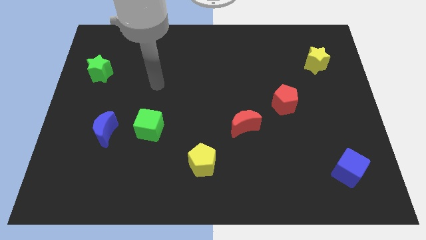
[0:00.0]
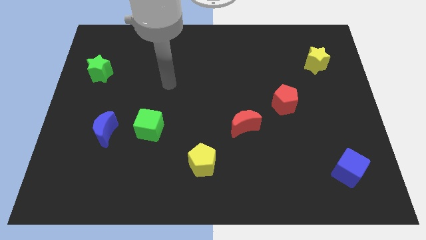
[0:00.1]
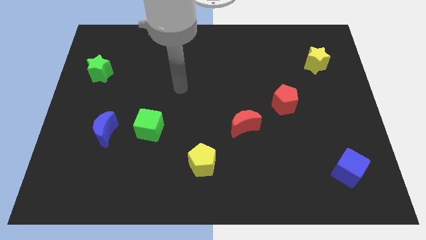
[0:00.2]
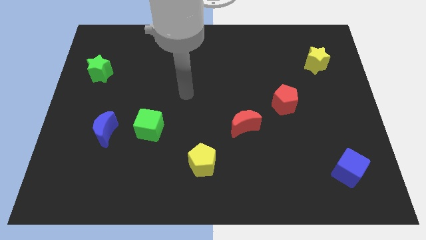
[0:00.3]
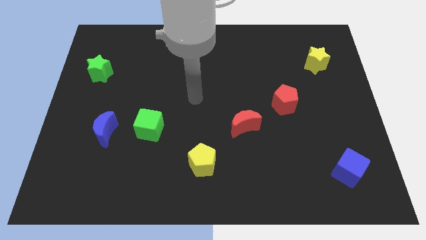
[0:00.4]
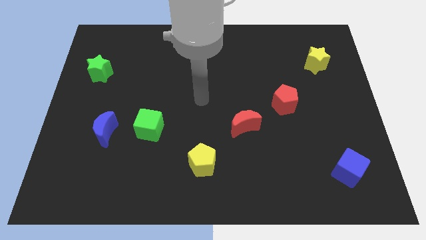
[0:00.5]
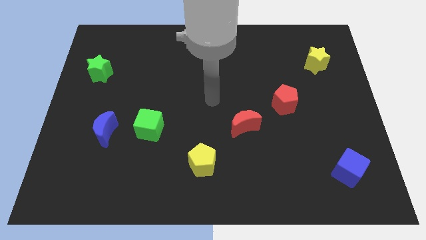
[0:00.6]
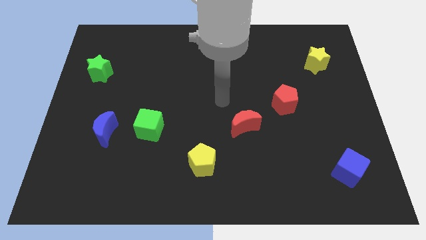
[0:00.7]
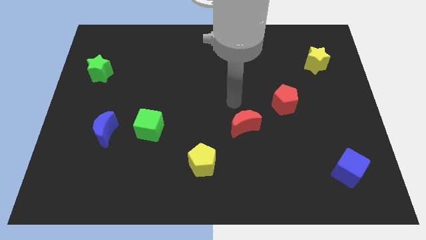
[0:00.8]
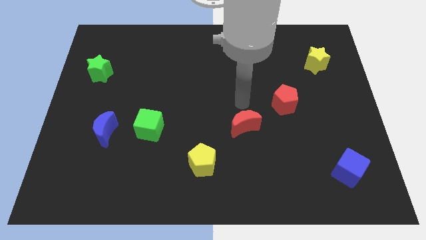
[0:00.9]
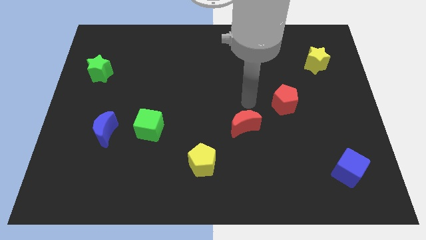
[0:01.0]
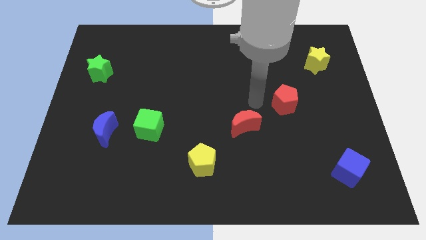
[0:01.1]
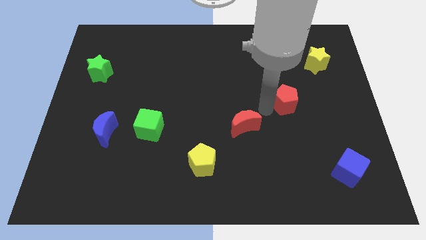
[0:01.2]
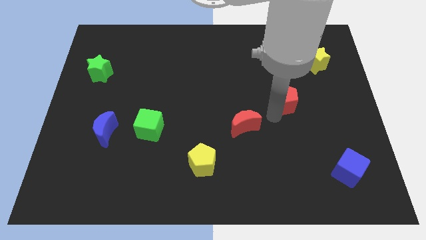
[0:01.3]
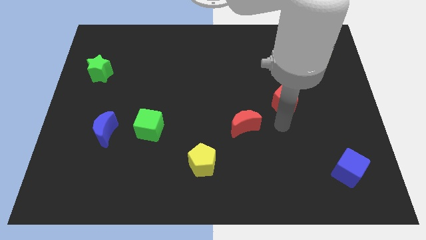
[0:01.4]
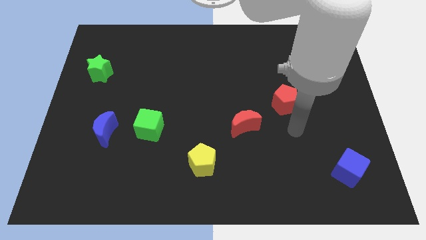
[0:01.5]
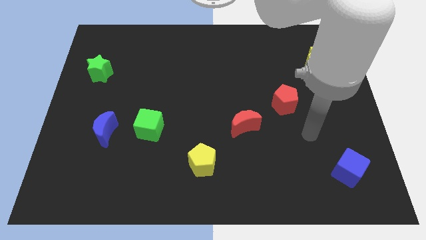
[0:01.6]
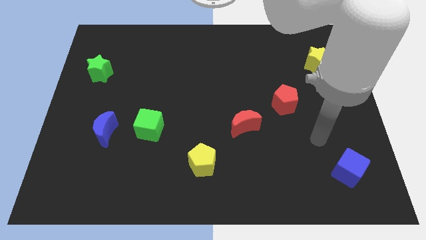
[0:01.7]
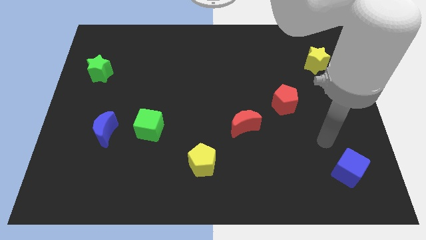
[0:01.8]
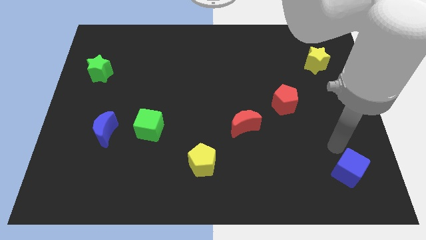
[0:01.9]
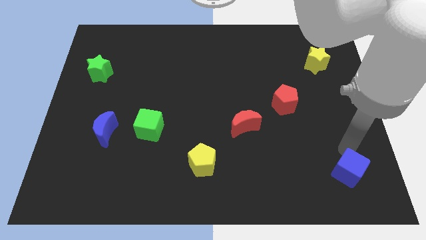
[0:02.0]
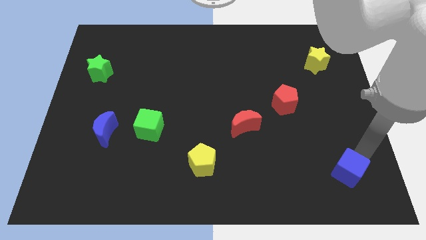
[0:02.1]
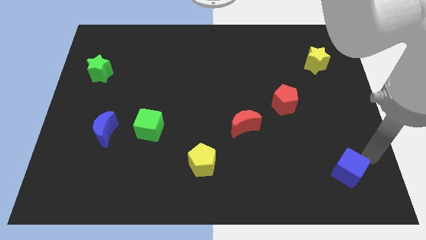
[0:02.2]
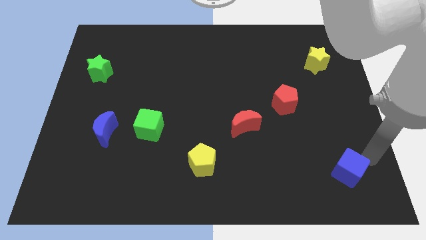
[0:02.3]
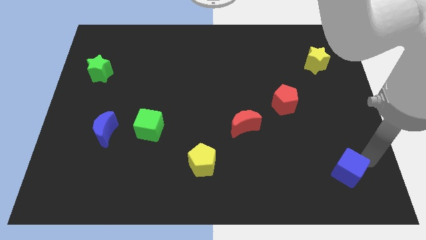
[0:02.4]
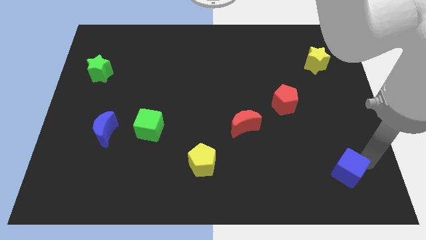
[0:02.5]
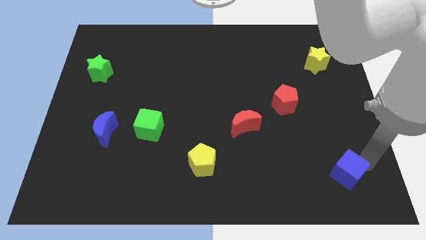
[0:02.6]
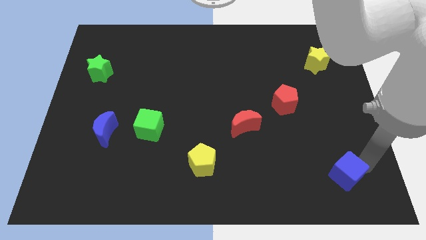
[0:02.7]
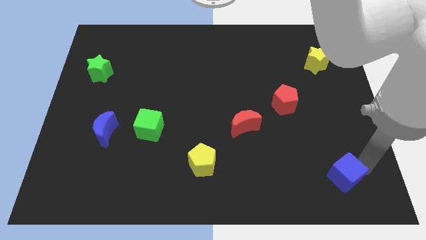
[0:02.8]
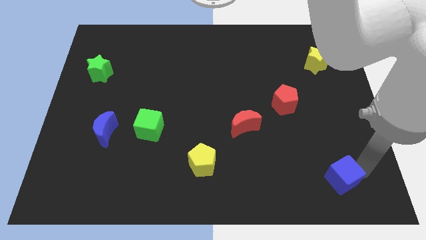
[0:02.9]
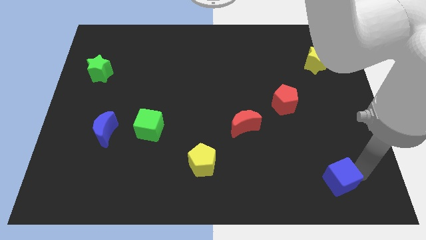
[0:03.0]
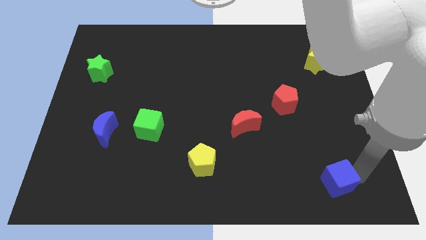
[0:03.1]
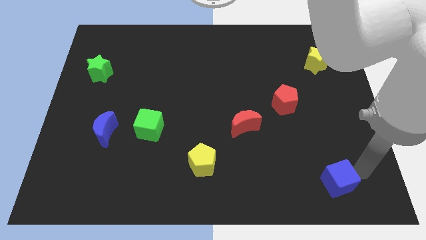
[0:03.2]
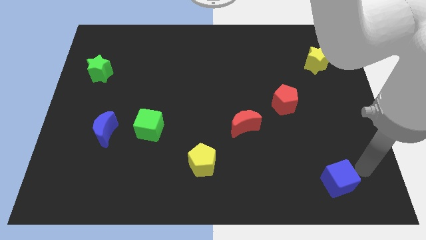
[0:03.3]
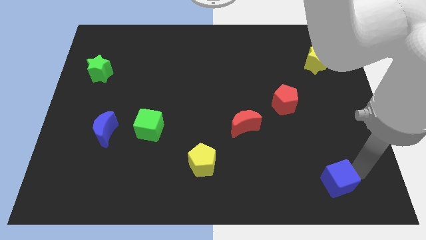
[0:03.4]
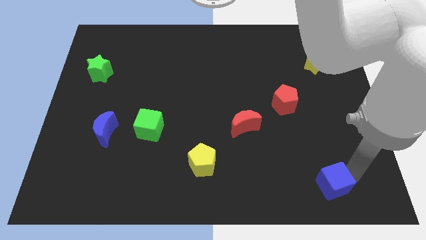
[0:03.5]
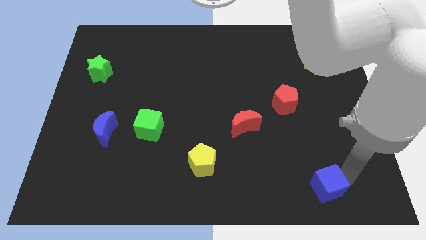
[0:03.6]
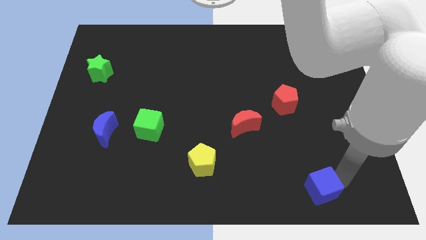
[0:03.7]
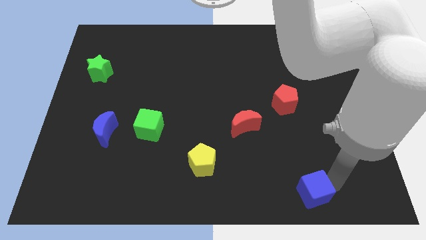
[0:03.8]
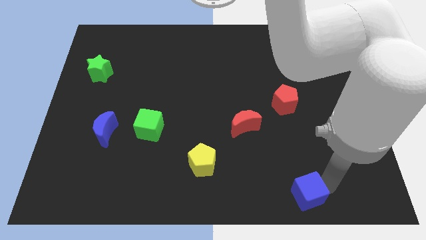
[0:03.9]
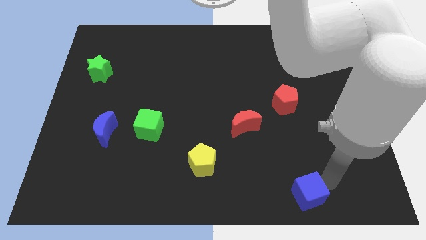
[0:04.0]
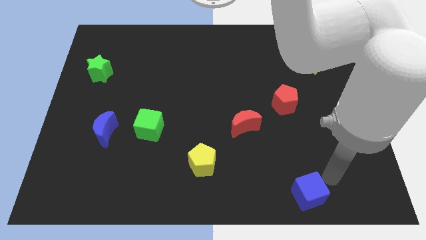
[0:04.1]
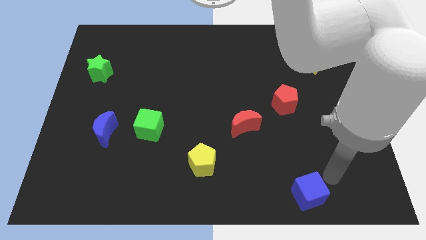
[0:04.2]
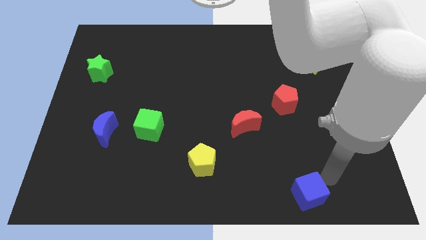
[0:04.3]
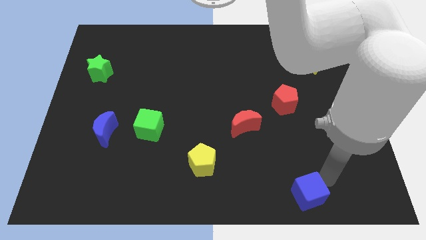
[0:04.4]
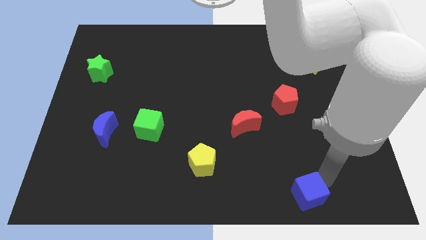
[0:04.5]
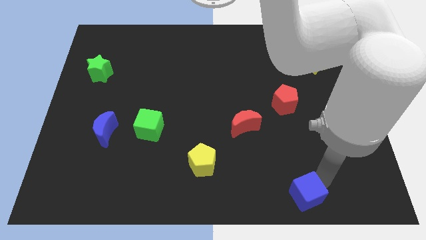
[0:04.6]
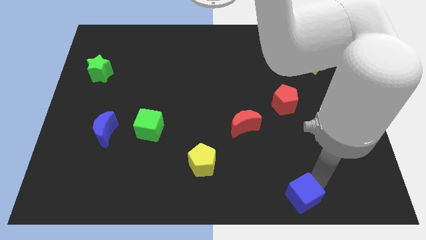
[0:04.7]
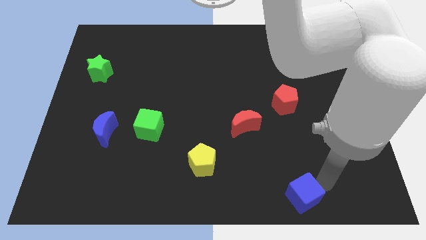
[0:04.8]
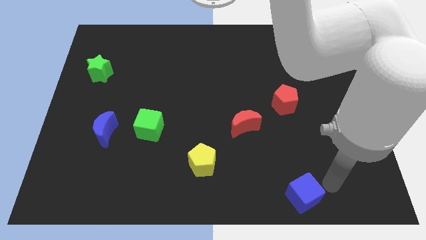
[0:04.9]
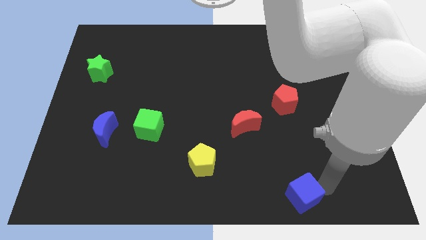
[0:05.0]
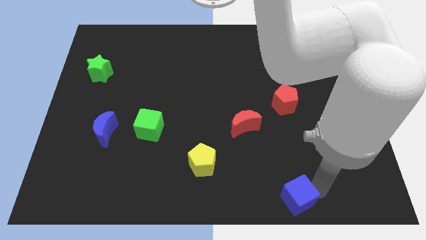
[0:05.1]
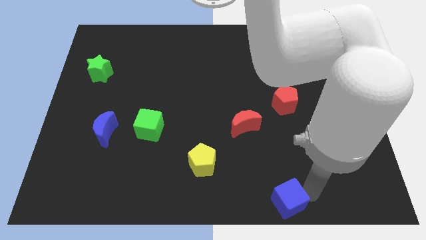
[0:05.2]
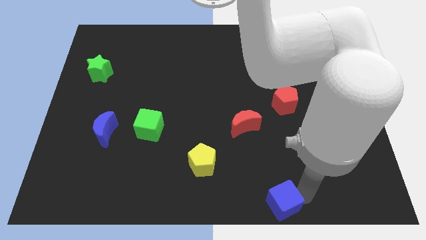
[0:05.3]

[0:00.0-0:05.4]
put the blue cube to the bottom side

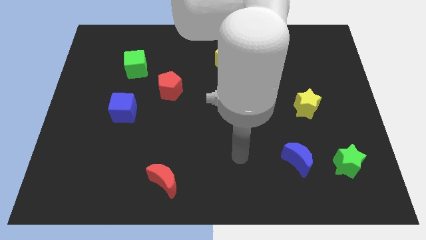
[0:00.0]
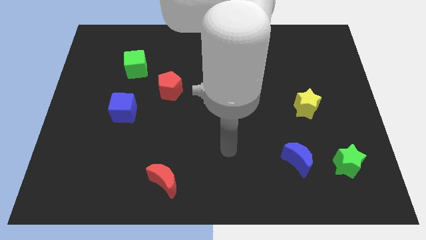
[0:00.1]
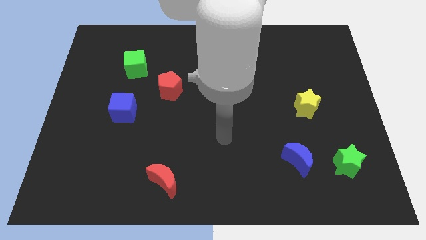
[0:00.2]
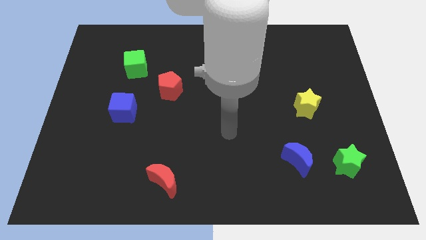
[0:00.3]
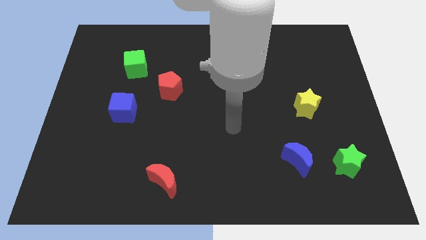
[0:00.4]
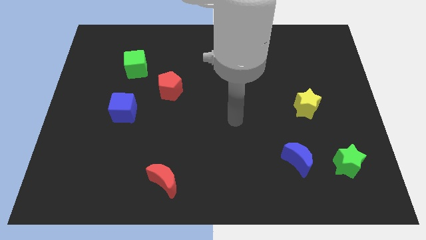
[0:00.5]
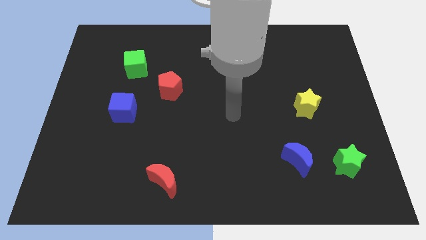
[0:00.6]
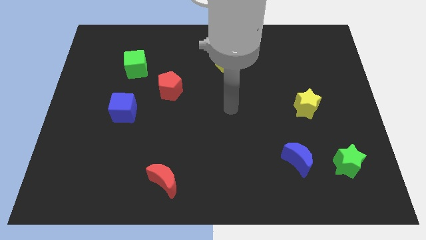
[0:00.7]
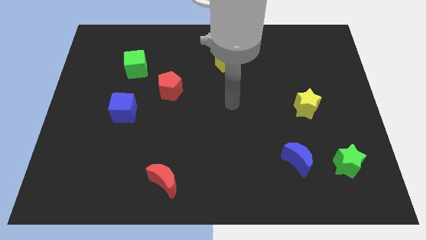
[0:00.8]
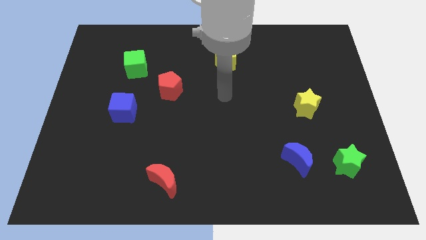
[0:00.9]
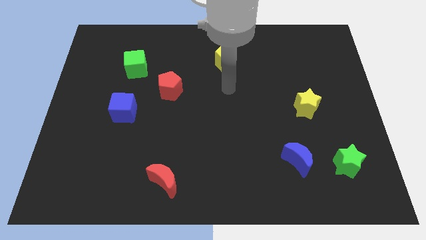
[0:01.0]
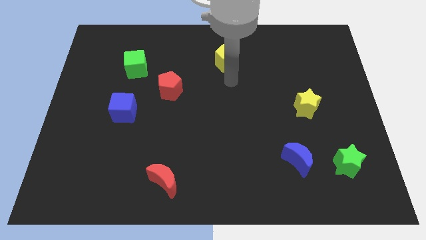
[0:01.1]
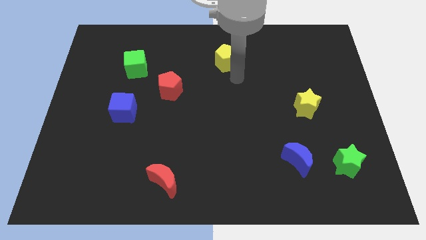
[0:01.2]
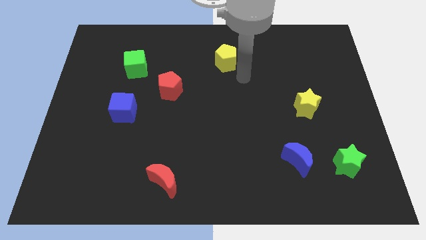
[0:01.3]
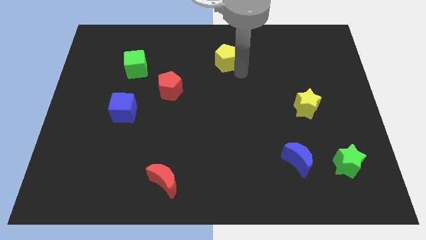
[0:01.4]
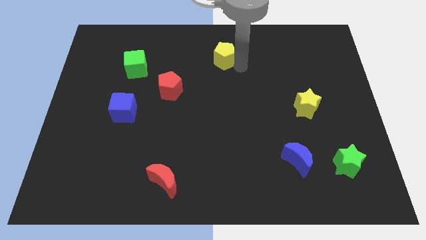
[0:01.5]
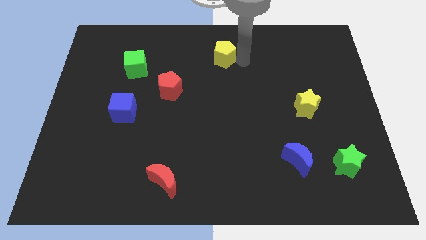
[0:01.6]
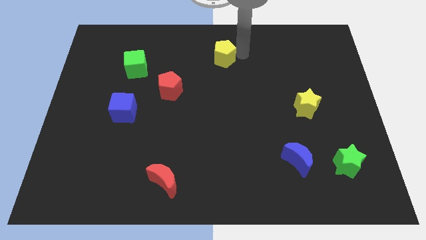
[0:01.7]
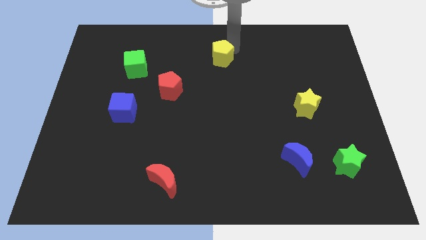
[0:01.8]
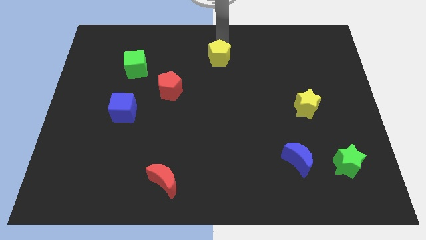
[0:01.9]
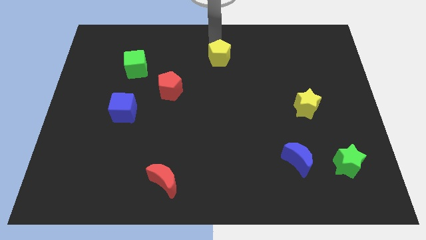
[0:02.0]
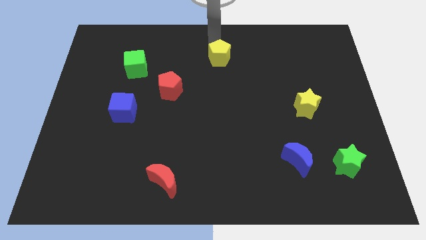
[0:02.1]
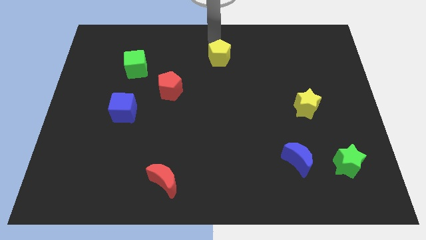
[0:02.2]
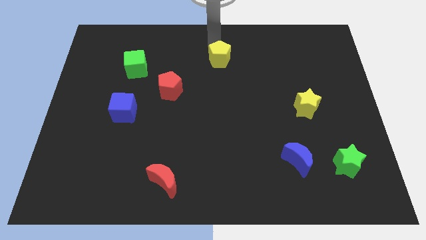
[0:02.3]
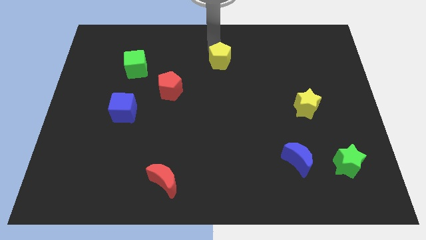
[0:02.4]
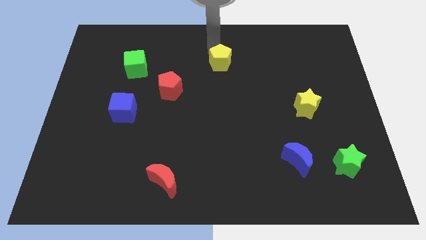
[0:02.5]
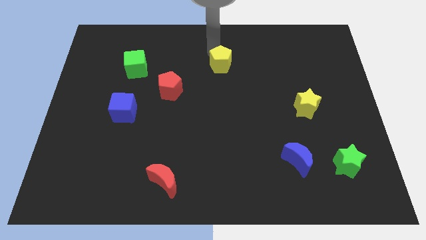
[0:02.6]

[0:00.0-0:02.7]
push the yellow pentagon to the middle
